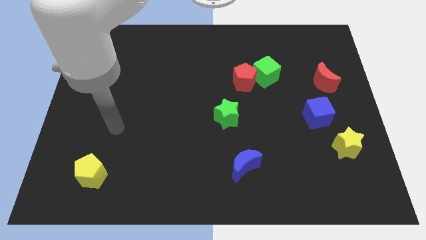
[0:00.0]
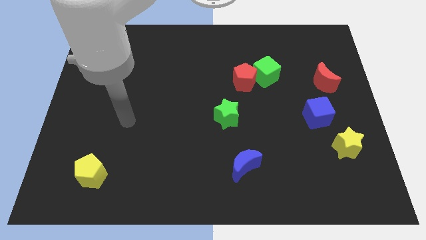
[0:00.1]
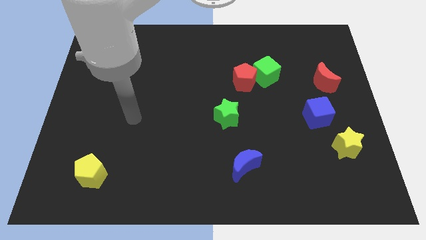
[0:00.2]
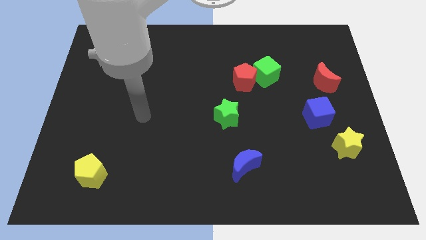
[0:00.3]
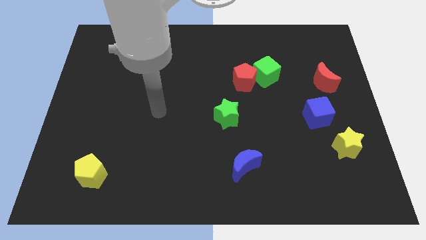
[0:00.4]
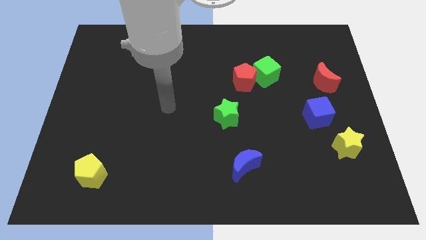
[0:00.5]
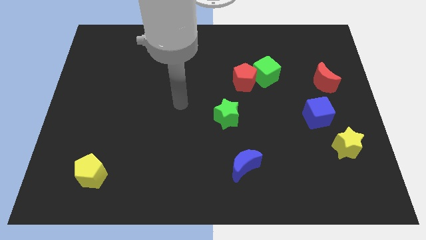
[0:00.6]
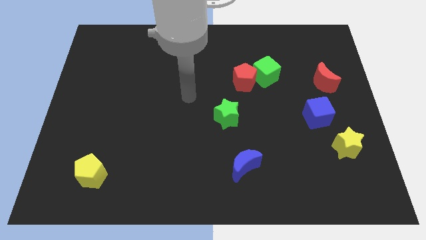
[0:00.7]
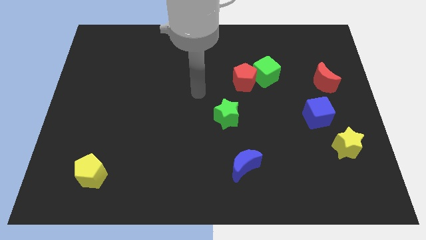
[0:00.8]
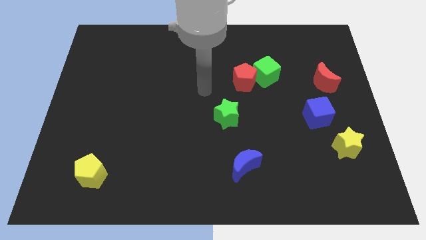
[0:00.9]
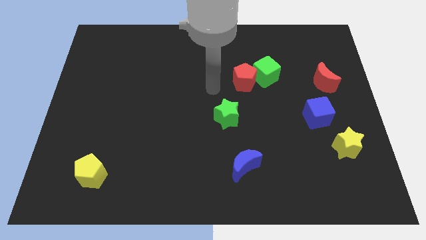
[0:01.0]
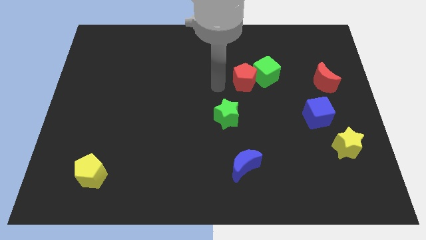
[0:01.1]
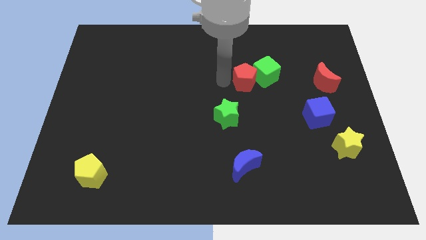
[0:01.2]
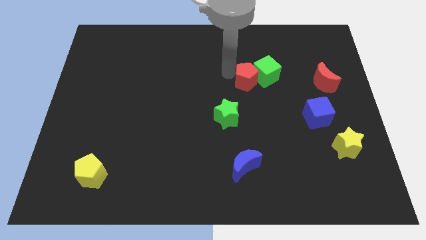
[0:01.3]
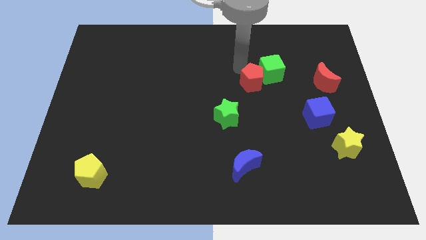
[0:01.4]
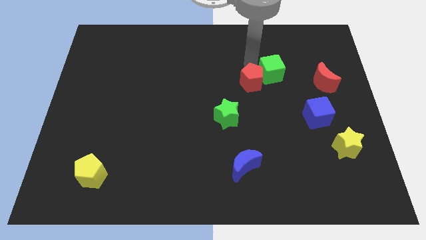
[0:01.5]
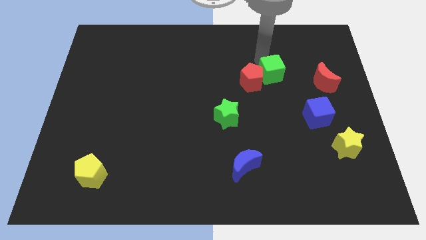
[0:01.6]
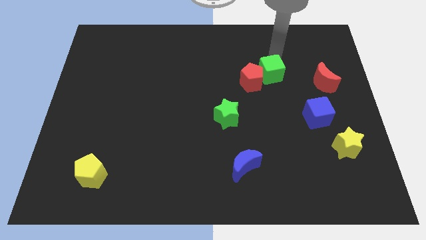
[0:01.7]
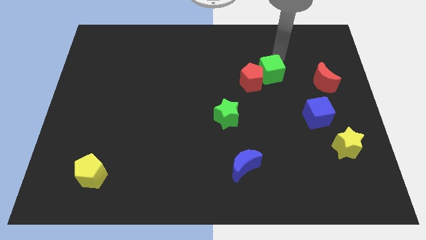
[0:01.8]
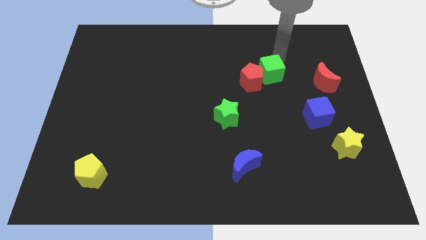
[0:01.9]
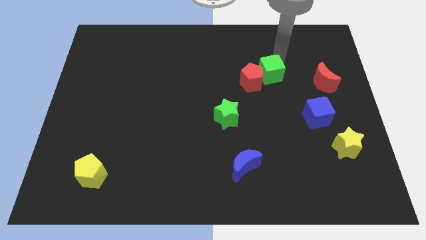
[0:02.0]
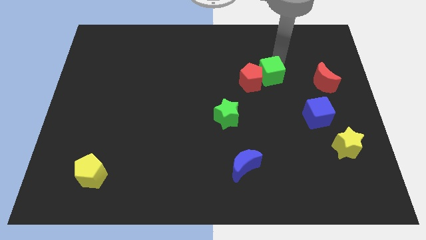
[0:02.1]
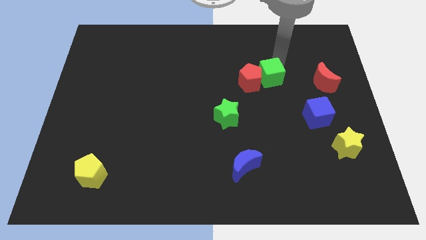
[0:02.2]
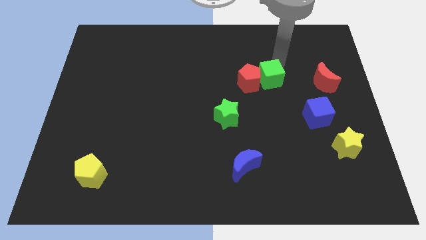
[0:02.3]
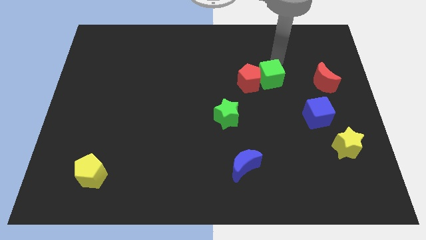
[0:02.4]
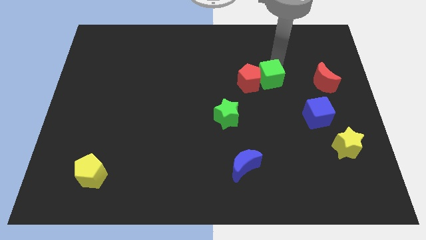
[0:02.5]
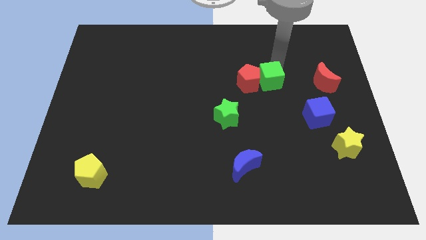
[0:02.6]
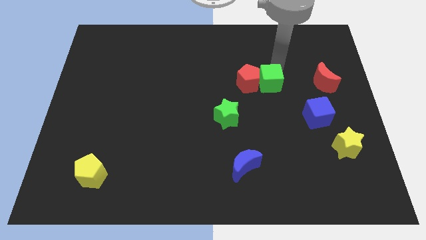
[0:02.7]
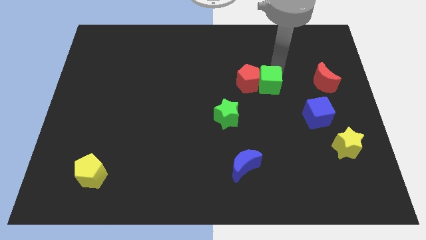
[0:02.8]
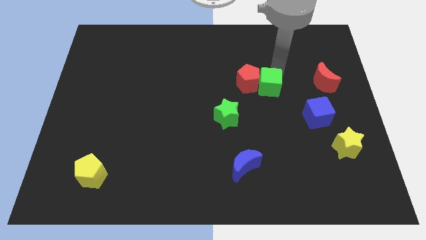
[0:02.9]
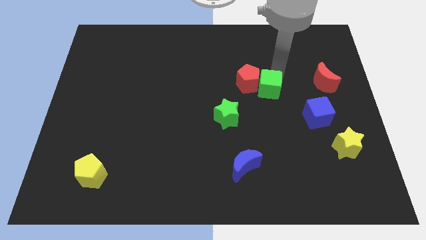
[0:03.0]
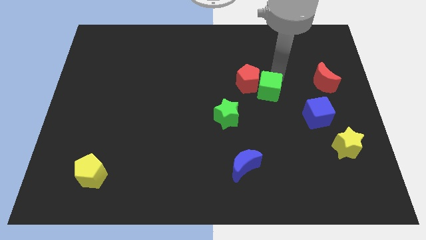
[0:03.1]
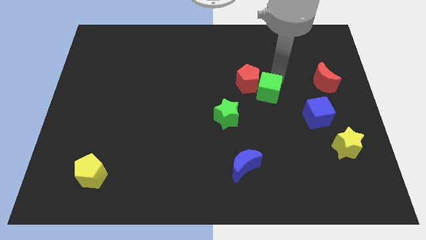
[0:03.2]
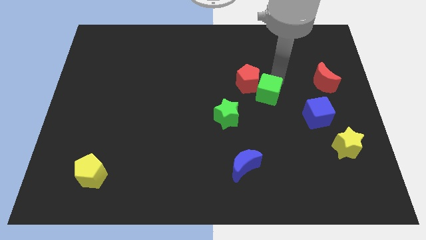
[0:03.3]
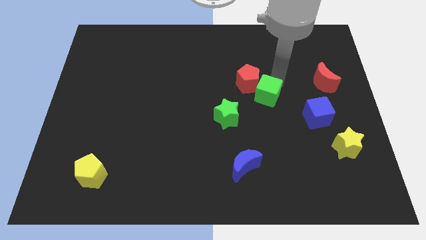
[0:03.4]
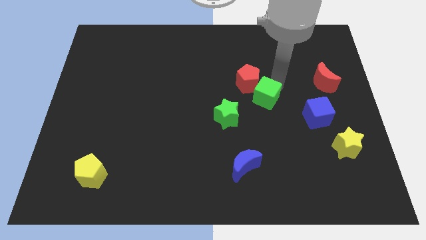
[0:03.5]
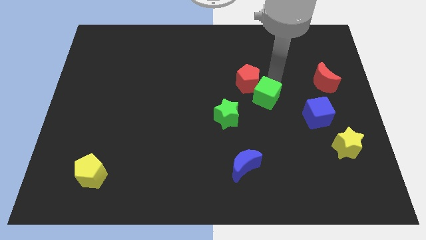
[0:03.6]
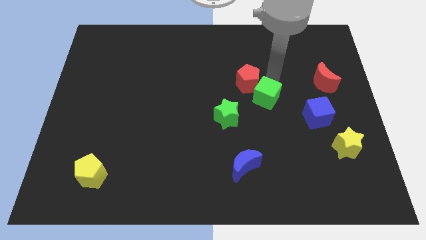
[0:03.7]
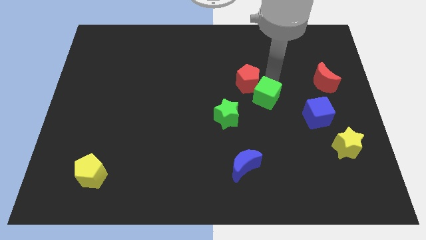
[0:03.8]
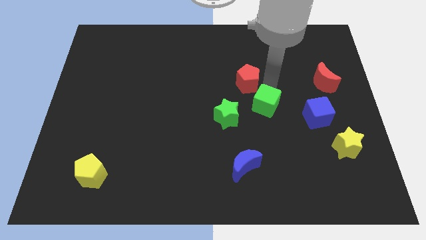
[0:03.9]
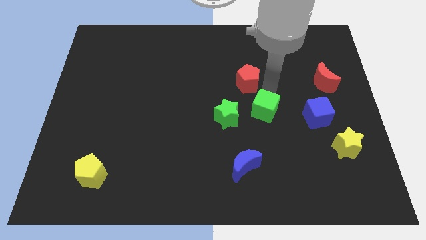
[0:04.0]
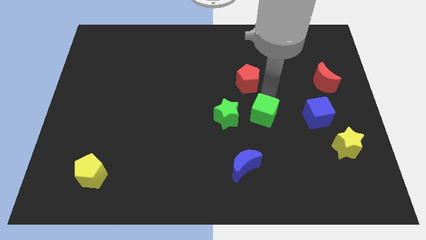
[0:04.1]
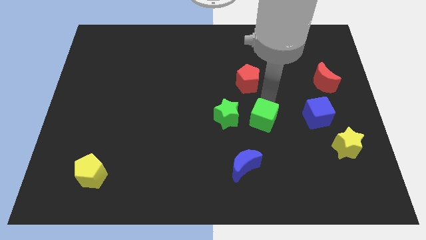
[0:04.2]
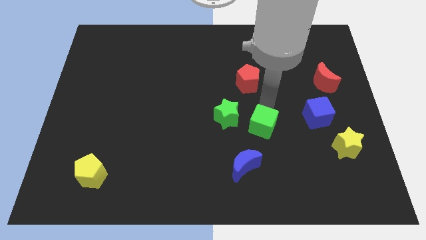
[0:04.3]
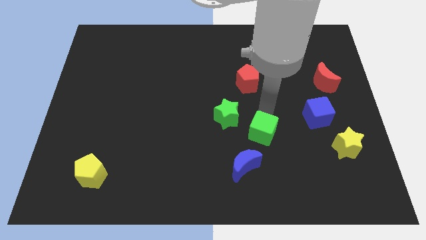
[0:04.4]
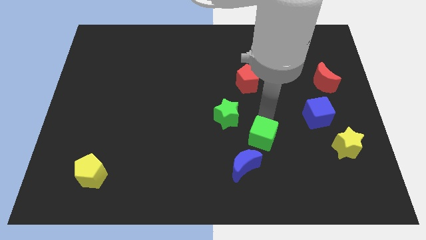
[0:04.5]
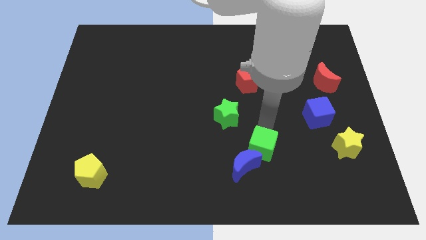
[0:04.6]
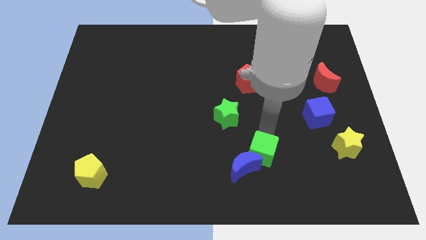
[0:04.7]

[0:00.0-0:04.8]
push the green cube towards the blue moon

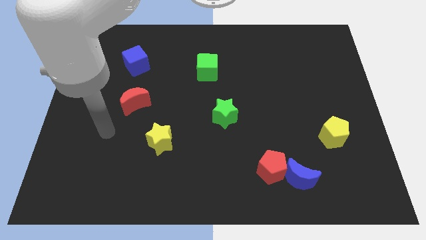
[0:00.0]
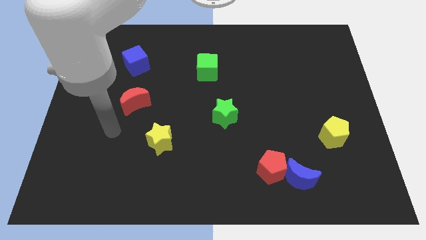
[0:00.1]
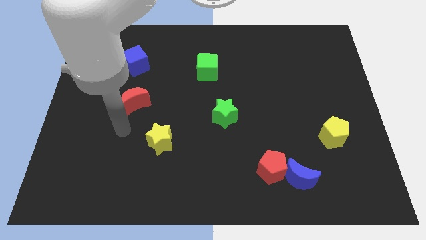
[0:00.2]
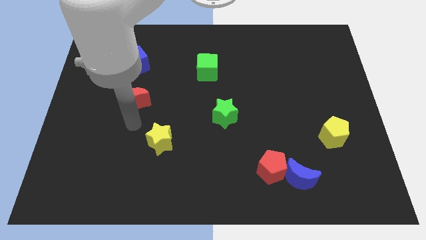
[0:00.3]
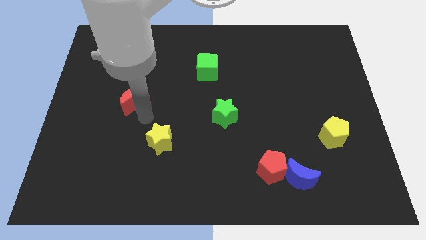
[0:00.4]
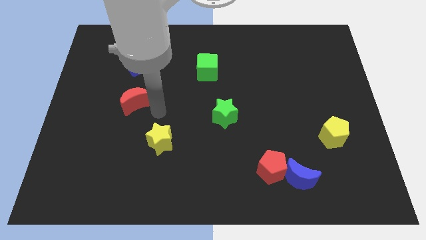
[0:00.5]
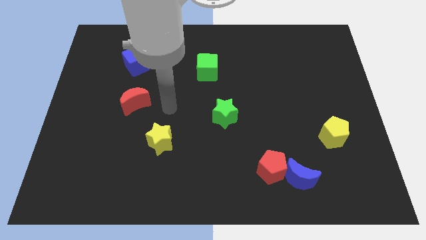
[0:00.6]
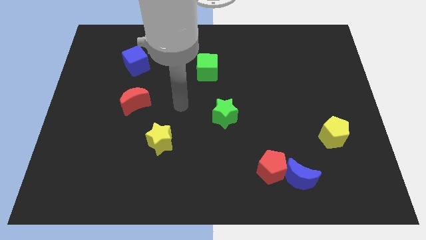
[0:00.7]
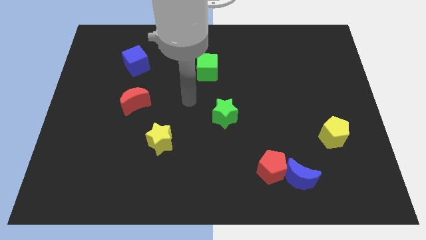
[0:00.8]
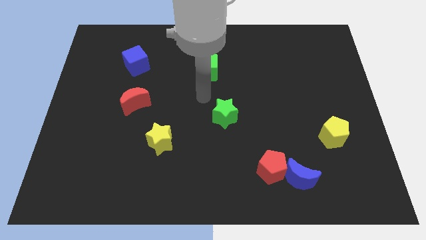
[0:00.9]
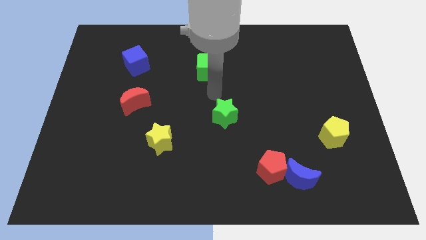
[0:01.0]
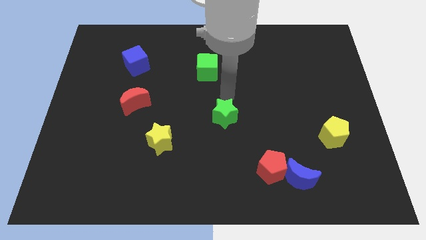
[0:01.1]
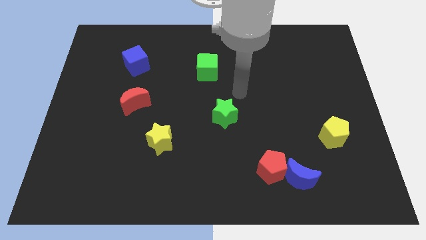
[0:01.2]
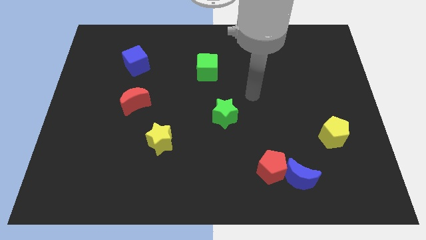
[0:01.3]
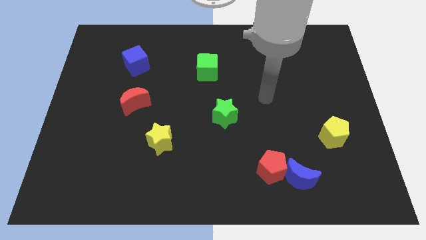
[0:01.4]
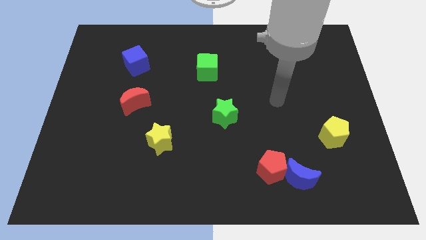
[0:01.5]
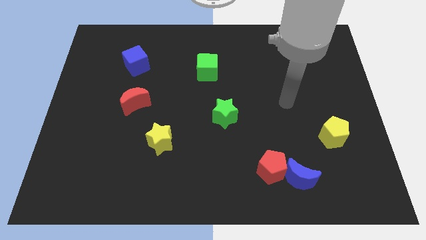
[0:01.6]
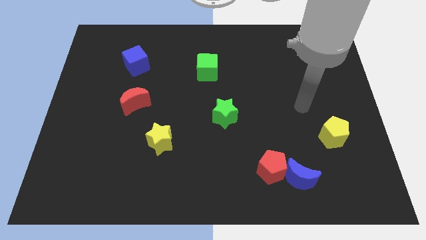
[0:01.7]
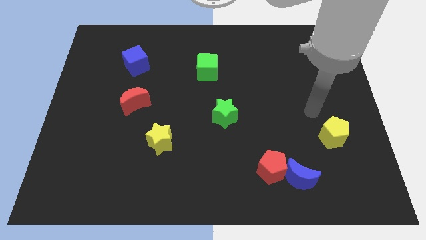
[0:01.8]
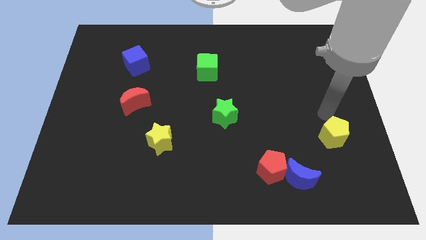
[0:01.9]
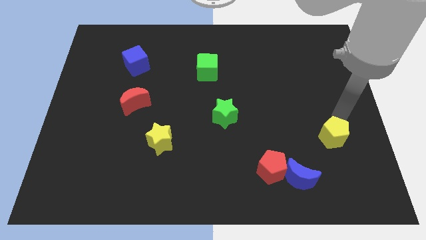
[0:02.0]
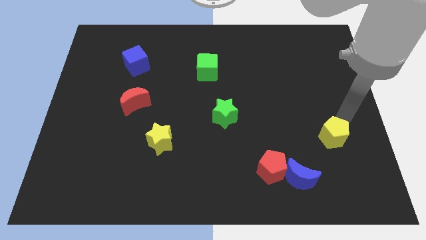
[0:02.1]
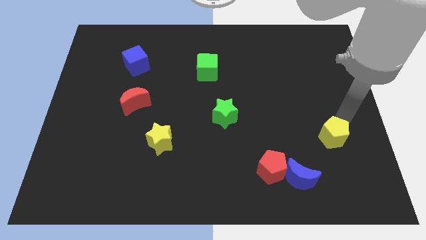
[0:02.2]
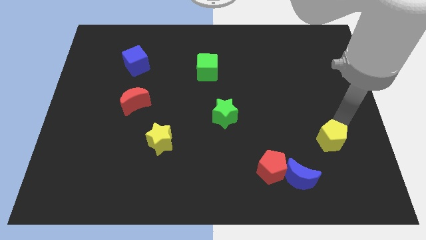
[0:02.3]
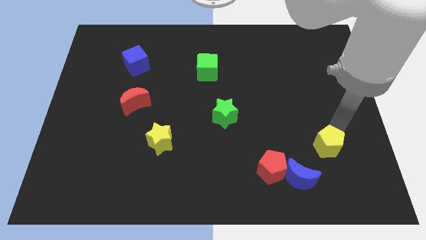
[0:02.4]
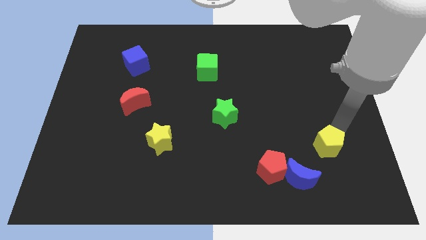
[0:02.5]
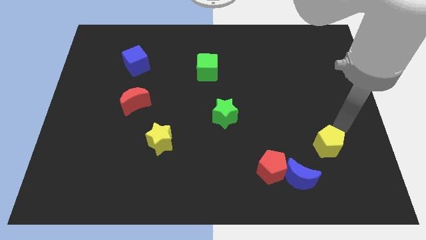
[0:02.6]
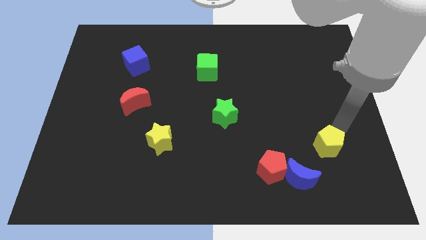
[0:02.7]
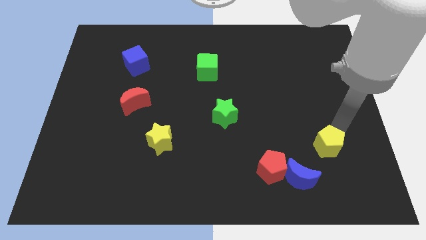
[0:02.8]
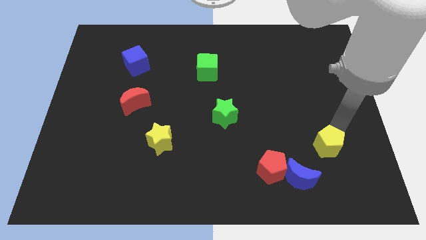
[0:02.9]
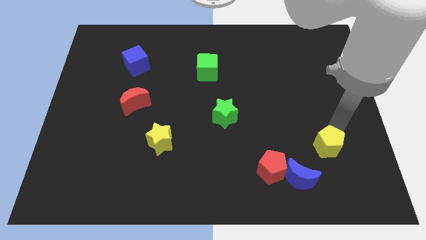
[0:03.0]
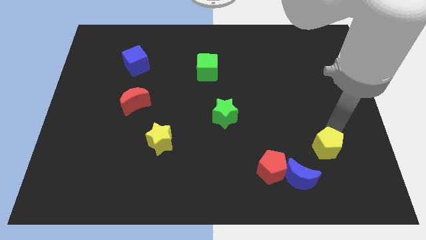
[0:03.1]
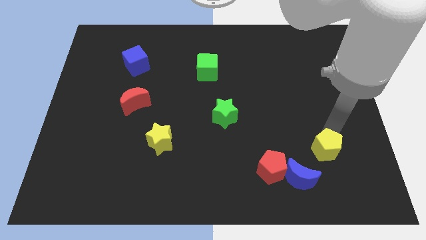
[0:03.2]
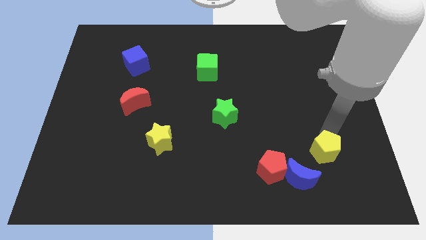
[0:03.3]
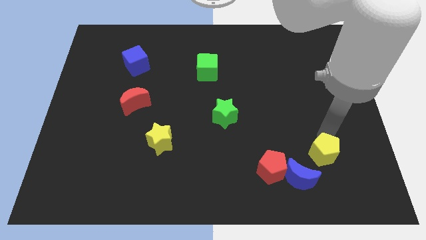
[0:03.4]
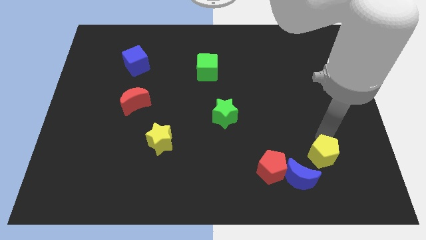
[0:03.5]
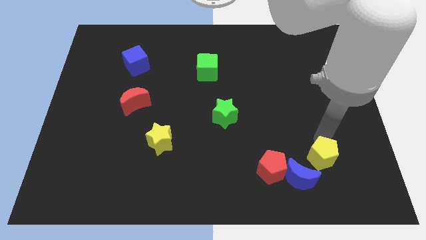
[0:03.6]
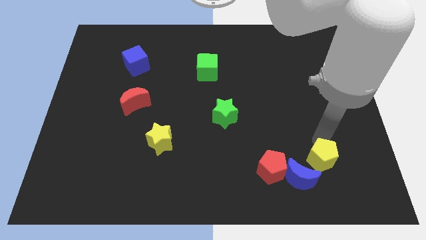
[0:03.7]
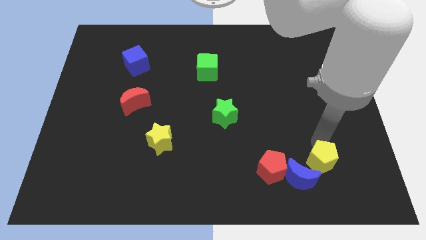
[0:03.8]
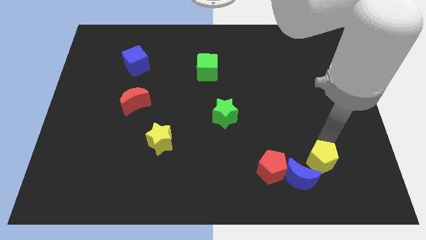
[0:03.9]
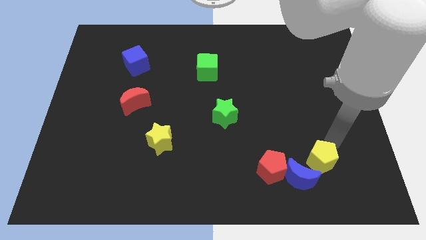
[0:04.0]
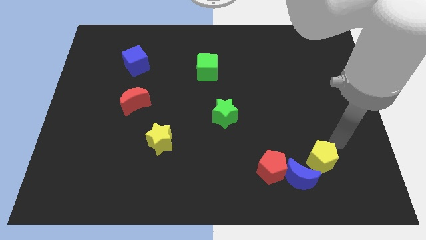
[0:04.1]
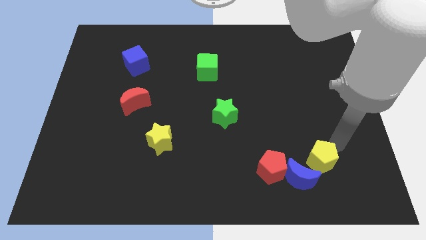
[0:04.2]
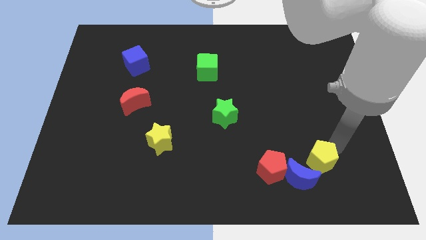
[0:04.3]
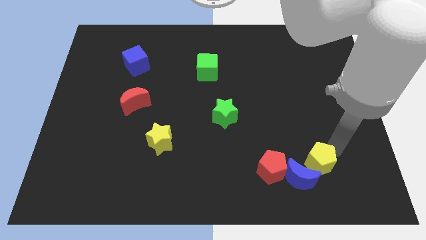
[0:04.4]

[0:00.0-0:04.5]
slide the yellow pentagon towards the blue moon
